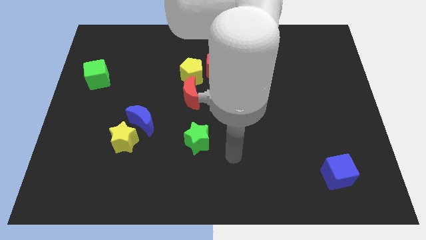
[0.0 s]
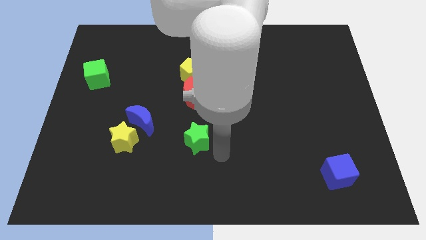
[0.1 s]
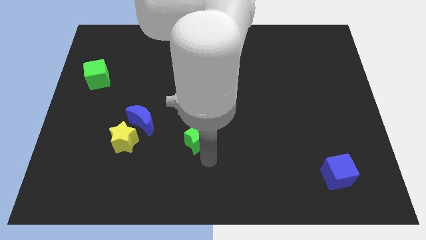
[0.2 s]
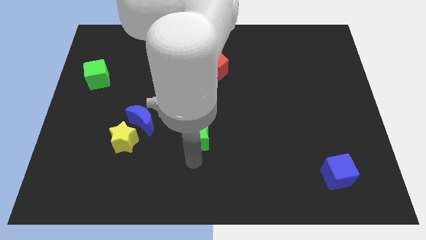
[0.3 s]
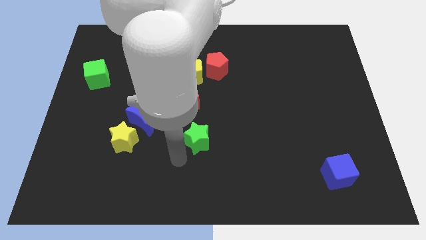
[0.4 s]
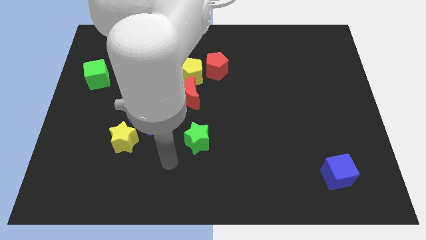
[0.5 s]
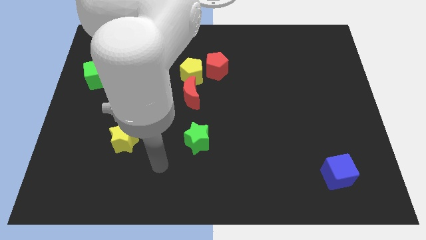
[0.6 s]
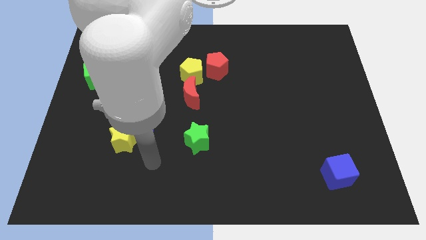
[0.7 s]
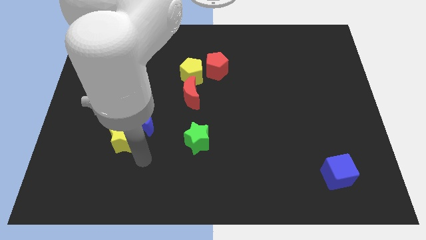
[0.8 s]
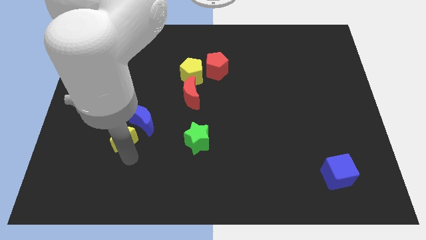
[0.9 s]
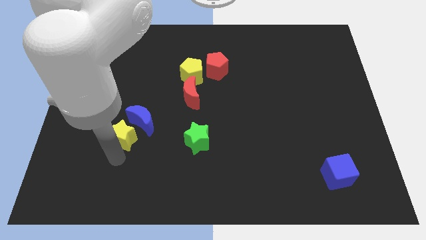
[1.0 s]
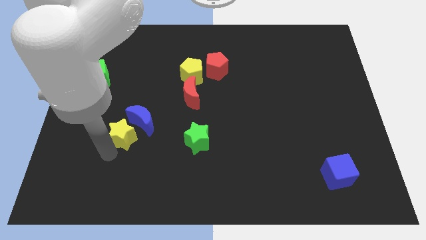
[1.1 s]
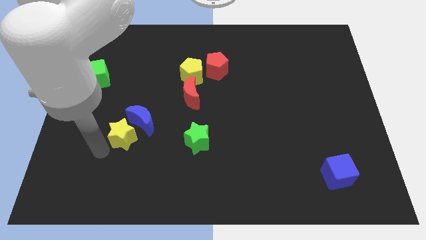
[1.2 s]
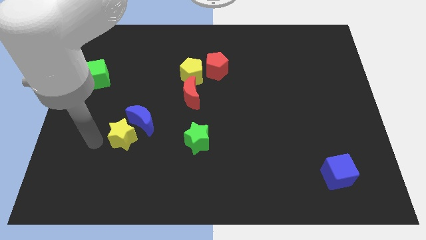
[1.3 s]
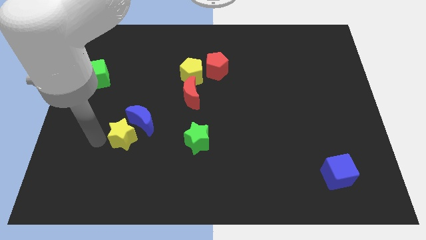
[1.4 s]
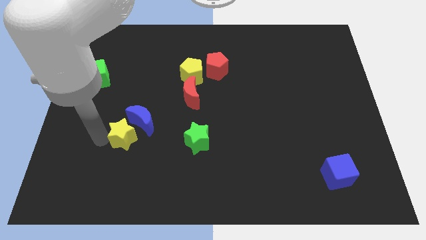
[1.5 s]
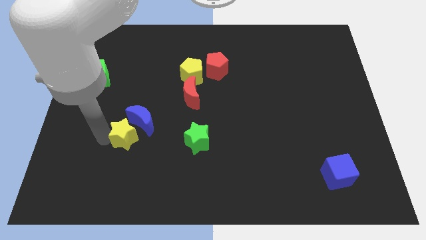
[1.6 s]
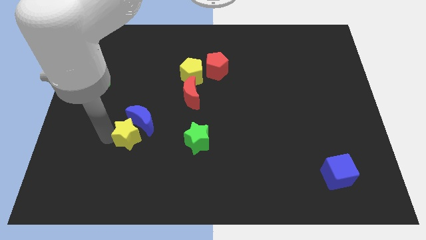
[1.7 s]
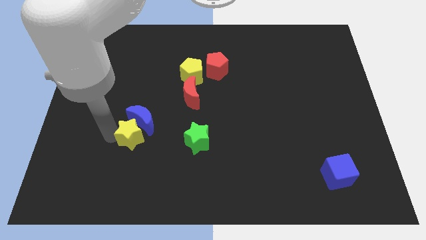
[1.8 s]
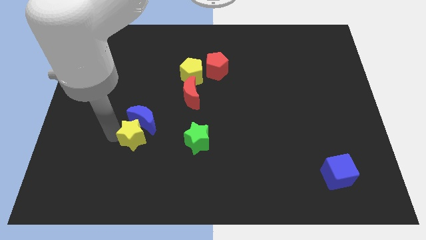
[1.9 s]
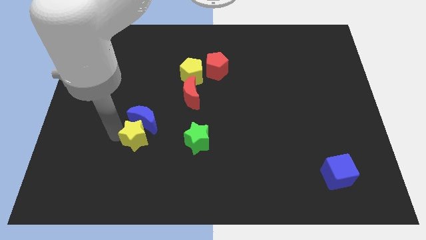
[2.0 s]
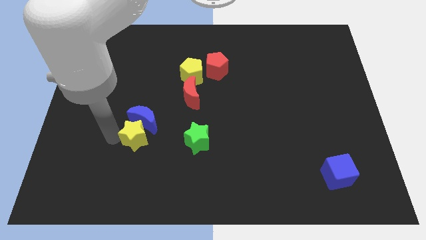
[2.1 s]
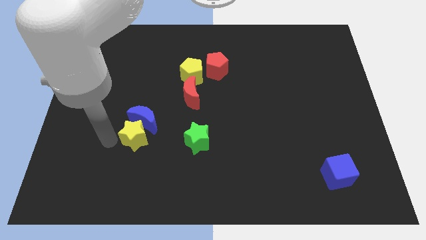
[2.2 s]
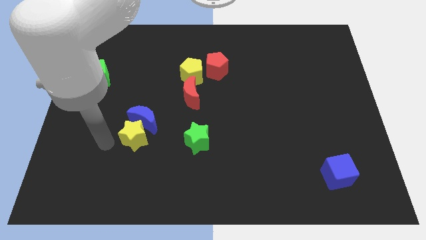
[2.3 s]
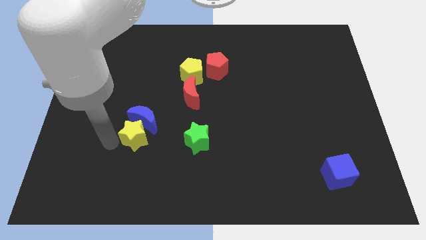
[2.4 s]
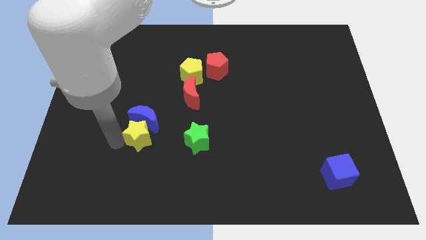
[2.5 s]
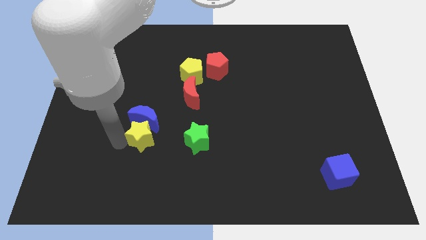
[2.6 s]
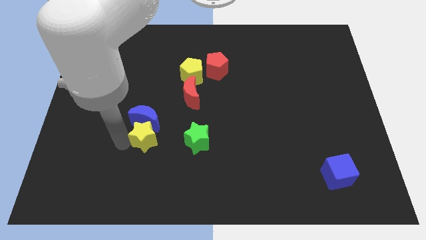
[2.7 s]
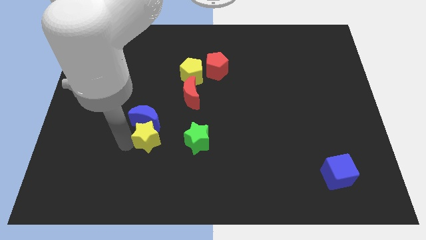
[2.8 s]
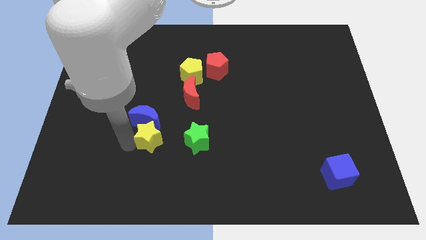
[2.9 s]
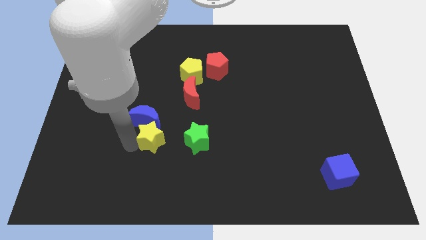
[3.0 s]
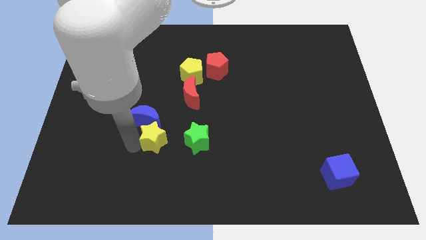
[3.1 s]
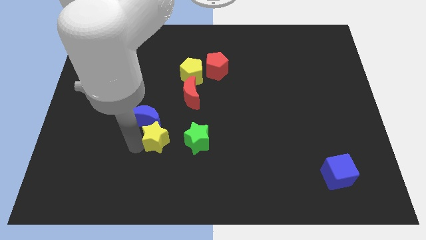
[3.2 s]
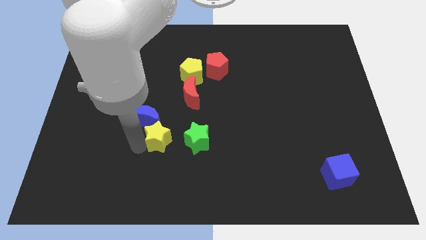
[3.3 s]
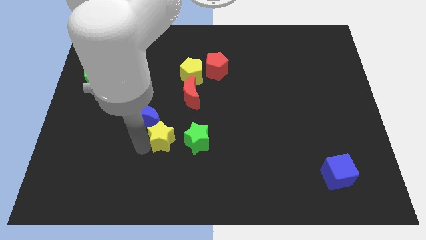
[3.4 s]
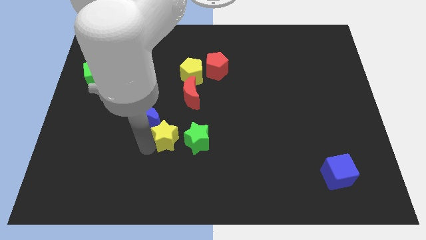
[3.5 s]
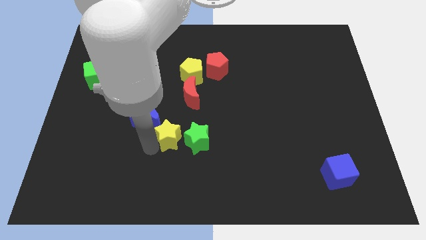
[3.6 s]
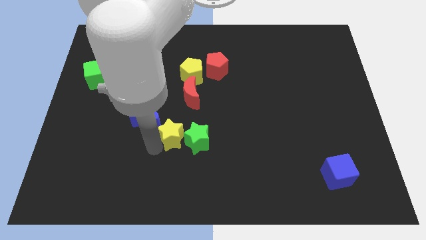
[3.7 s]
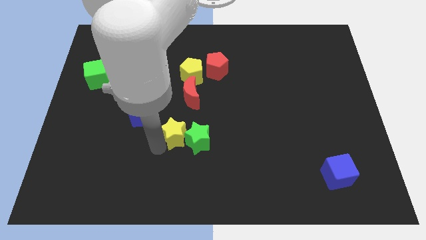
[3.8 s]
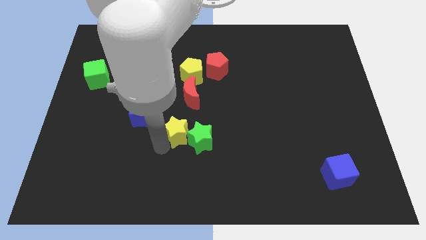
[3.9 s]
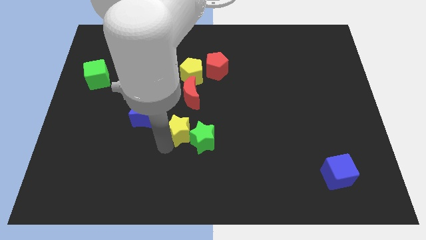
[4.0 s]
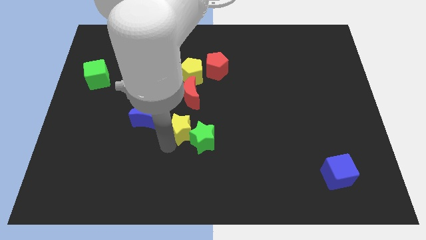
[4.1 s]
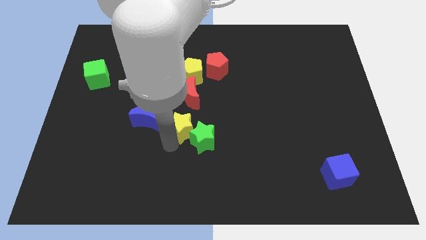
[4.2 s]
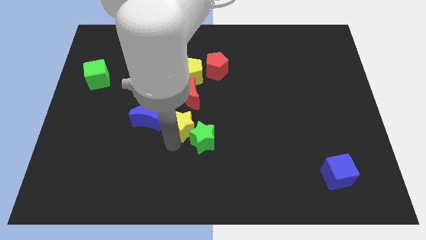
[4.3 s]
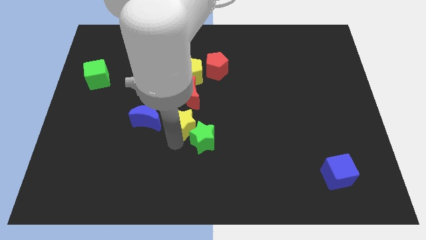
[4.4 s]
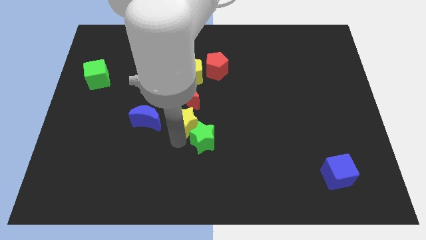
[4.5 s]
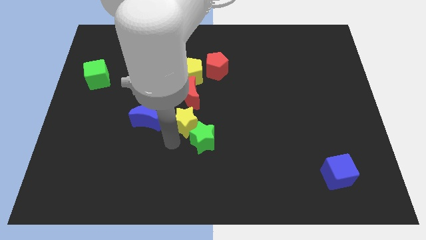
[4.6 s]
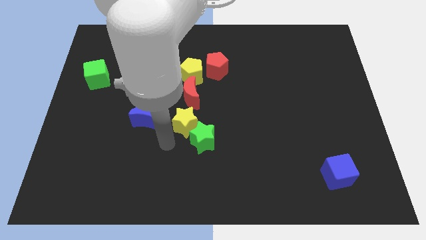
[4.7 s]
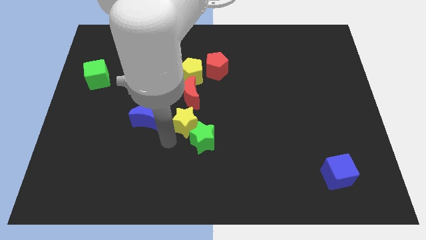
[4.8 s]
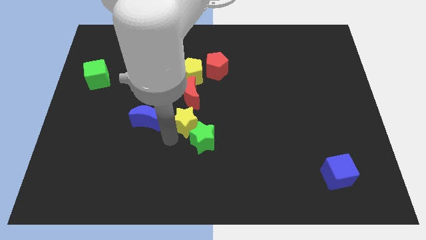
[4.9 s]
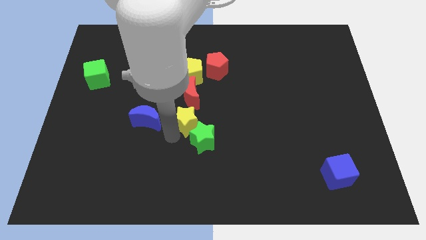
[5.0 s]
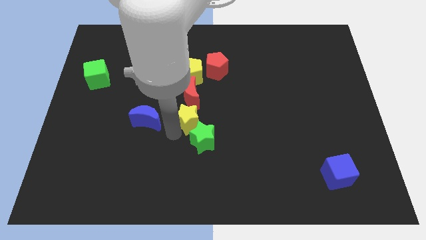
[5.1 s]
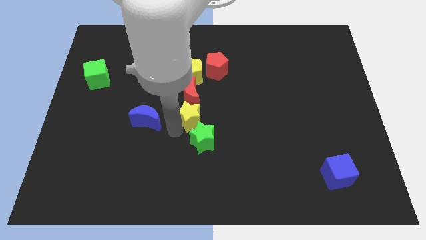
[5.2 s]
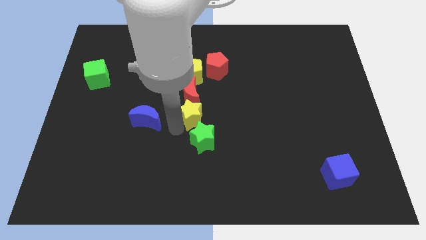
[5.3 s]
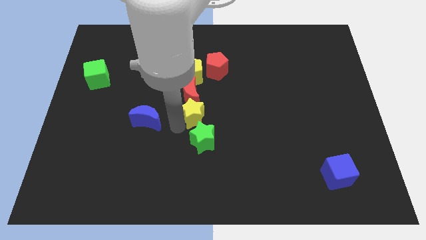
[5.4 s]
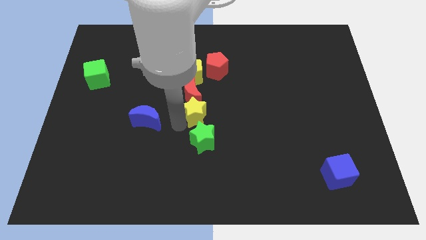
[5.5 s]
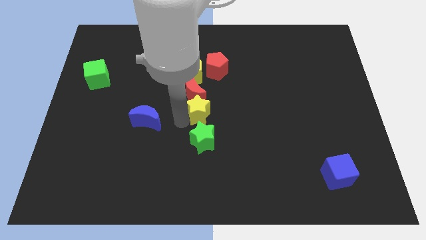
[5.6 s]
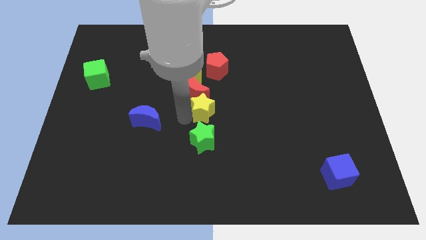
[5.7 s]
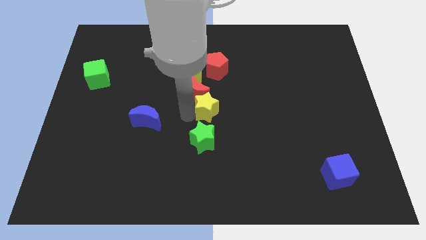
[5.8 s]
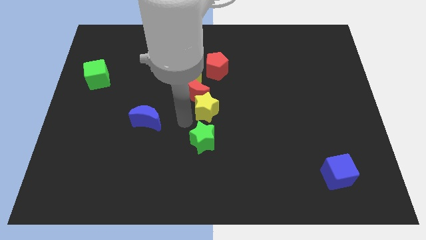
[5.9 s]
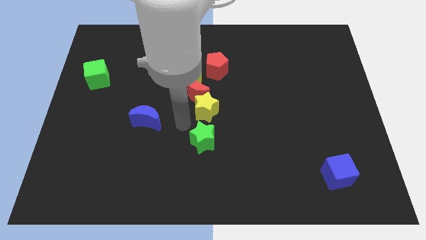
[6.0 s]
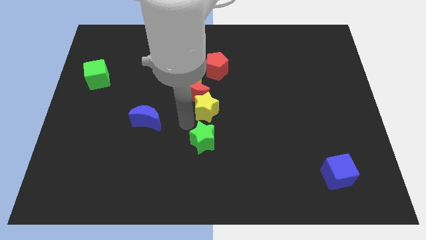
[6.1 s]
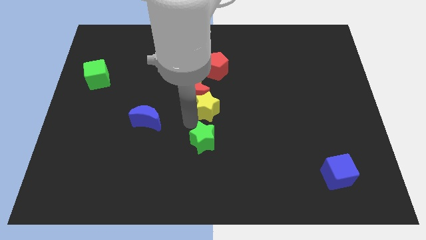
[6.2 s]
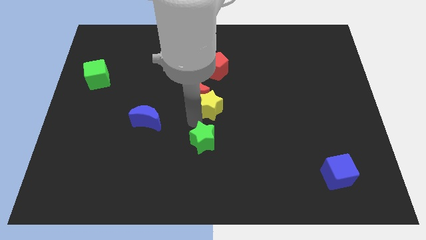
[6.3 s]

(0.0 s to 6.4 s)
slide the yellow star right of the red moon
